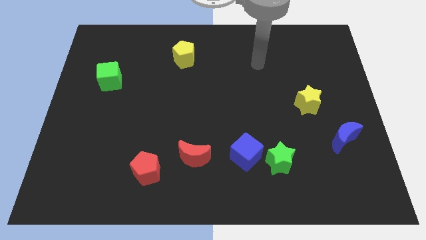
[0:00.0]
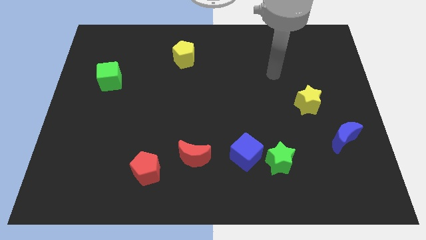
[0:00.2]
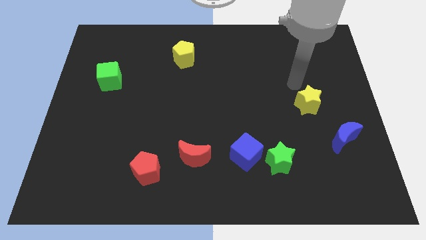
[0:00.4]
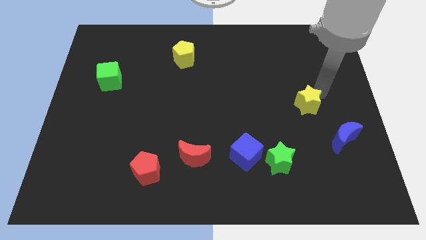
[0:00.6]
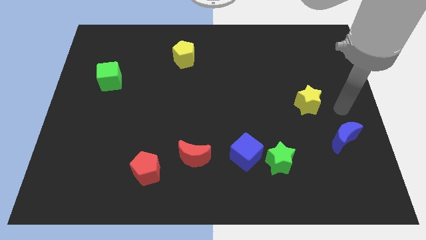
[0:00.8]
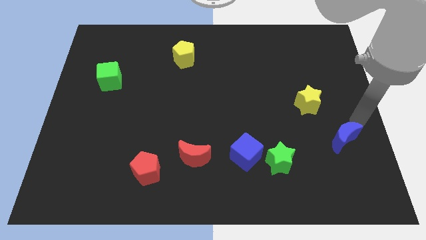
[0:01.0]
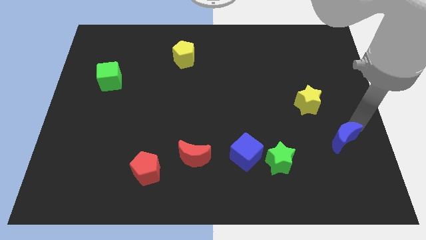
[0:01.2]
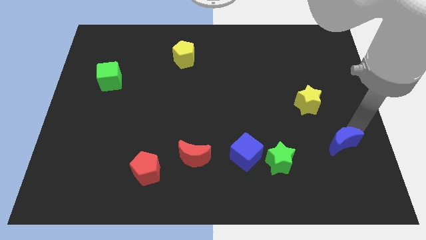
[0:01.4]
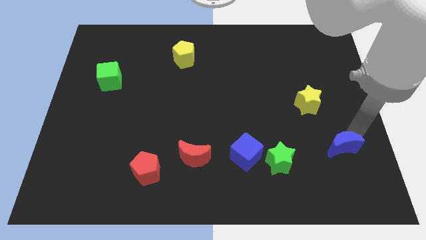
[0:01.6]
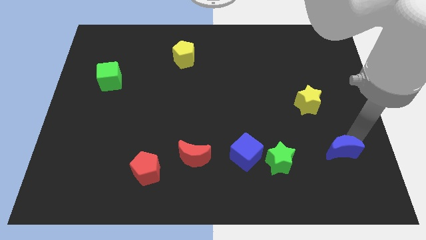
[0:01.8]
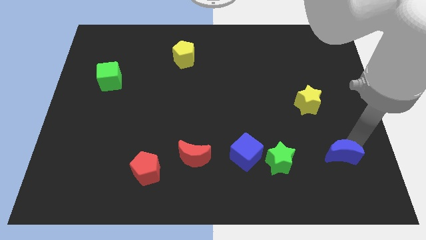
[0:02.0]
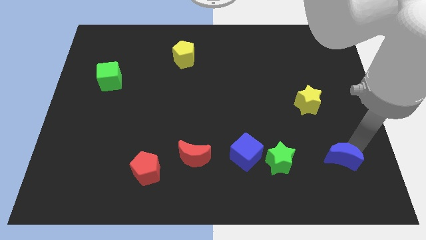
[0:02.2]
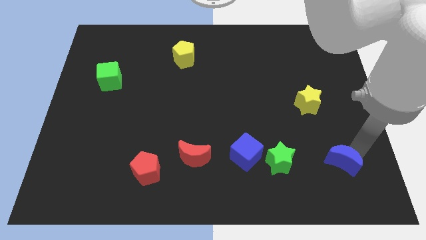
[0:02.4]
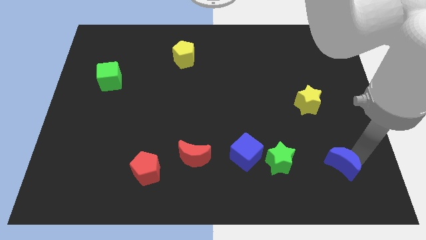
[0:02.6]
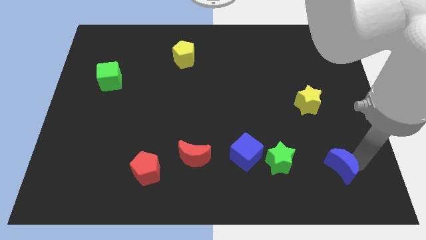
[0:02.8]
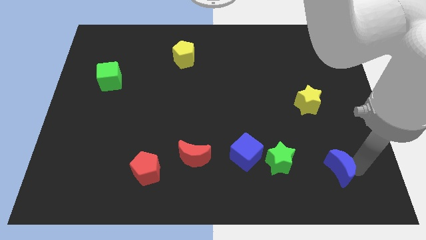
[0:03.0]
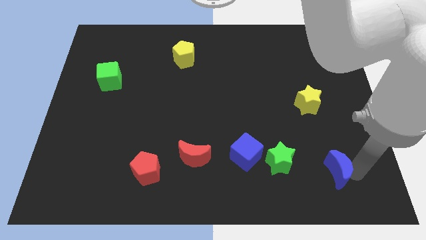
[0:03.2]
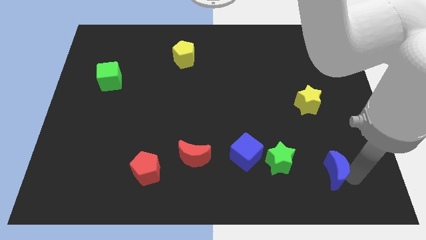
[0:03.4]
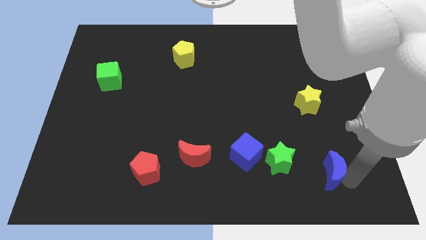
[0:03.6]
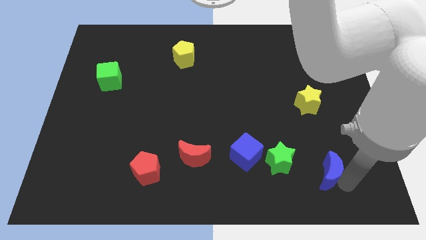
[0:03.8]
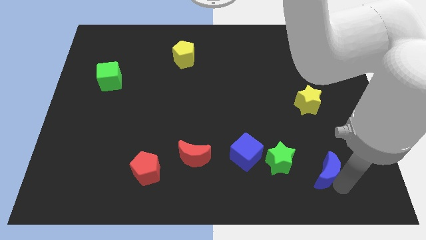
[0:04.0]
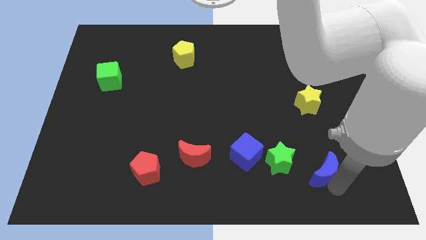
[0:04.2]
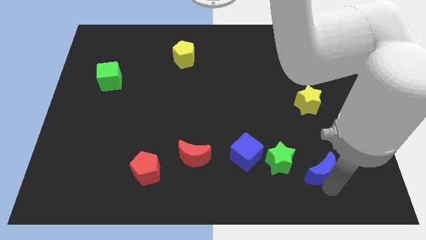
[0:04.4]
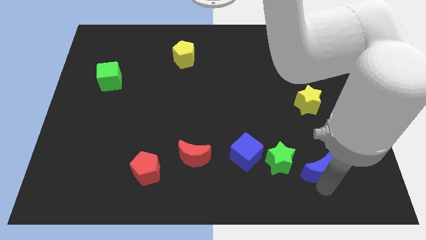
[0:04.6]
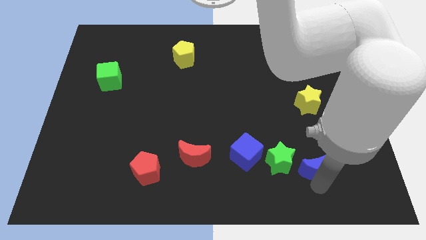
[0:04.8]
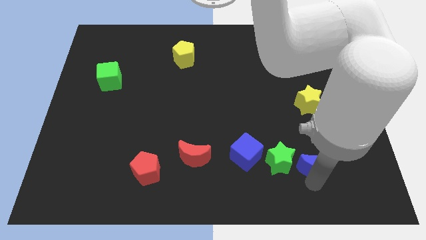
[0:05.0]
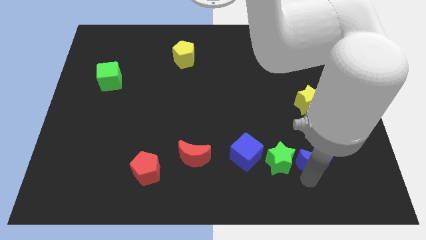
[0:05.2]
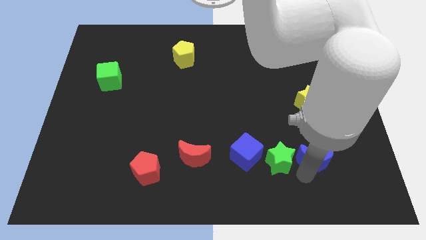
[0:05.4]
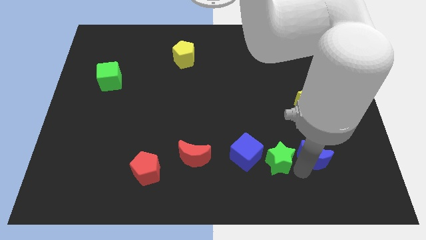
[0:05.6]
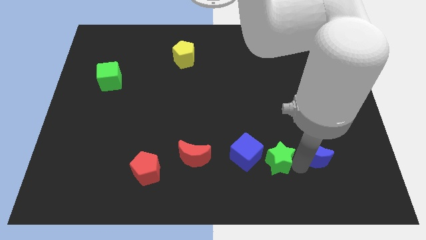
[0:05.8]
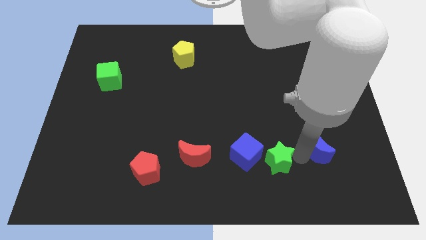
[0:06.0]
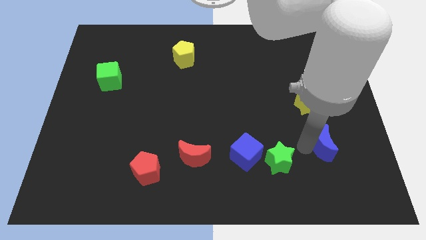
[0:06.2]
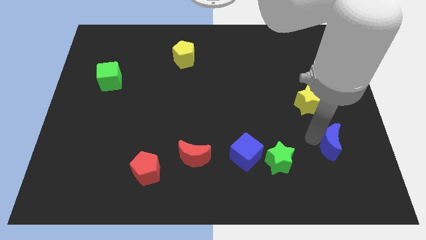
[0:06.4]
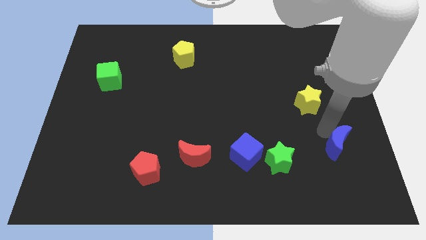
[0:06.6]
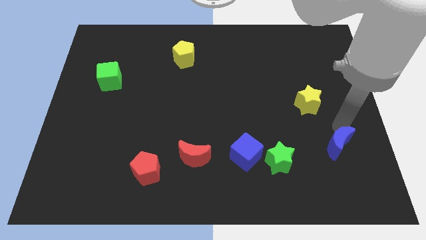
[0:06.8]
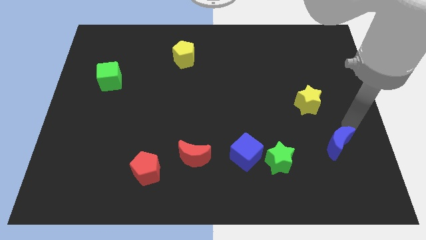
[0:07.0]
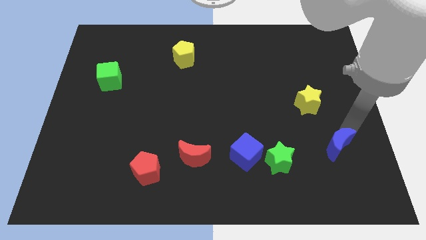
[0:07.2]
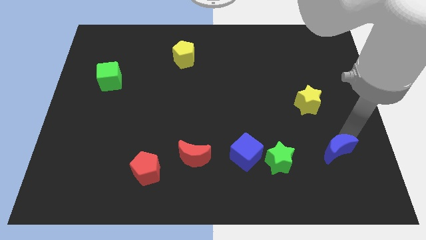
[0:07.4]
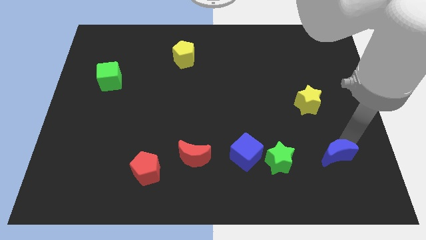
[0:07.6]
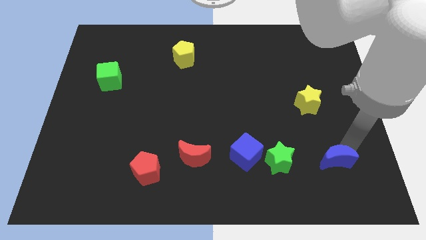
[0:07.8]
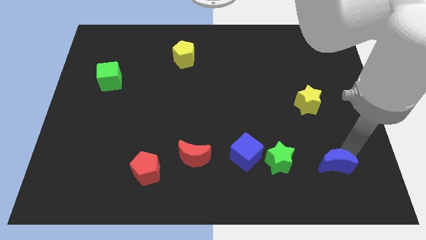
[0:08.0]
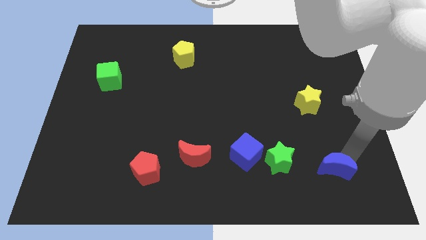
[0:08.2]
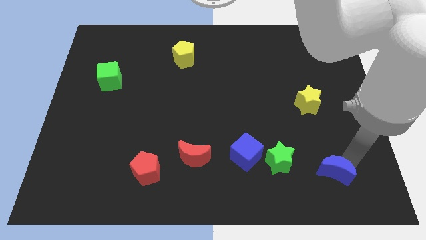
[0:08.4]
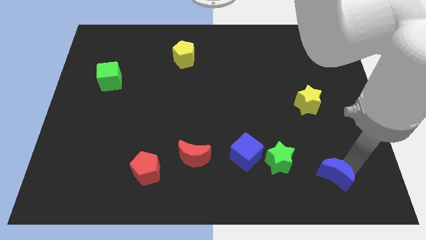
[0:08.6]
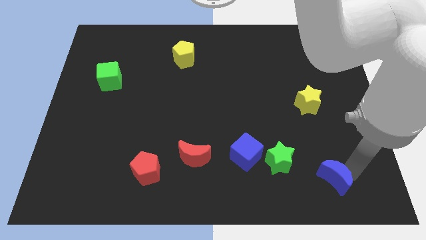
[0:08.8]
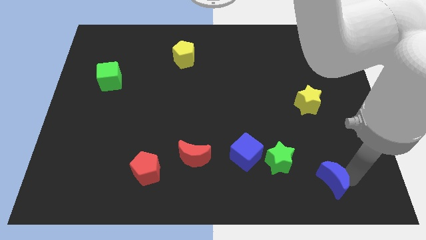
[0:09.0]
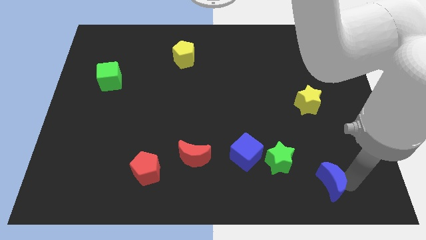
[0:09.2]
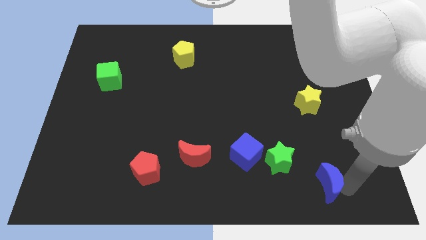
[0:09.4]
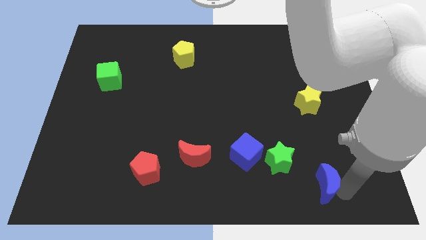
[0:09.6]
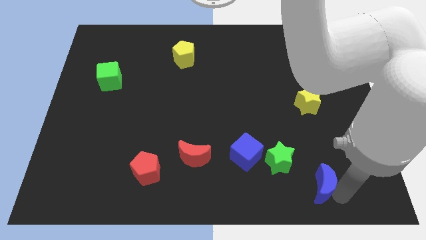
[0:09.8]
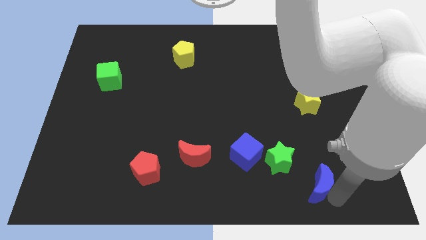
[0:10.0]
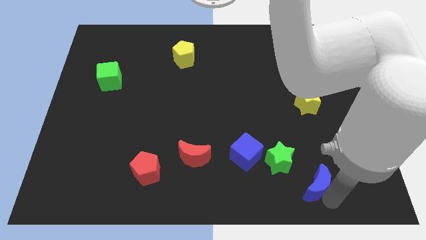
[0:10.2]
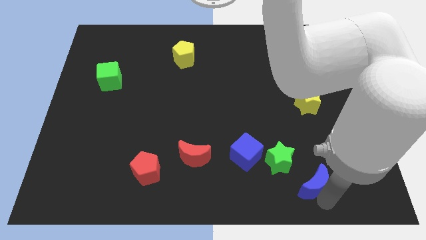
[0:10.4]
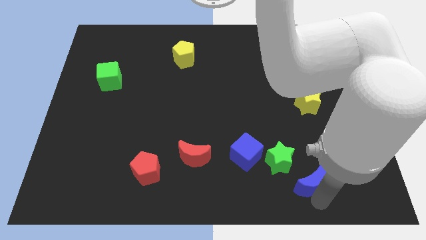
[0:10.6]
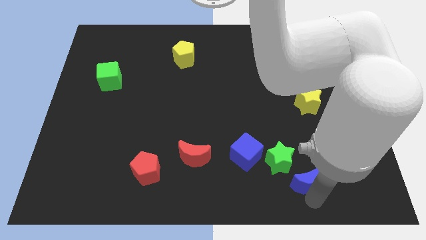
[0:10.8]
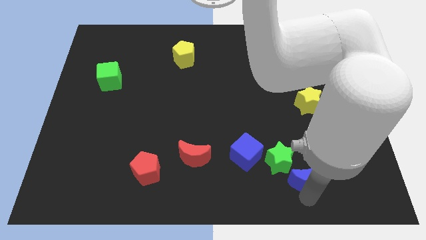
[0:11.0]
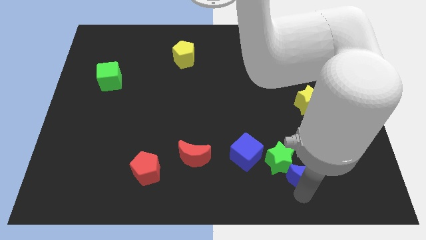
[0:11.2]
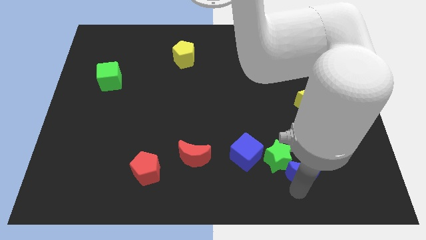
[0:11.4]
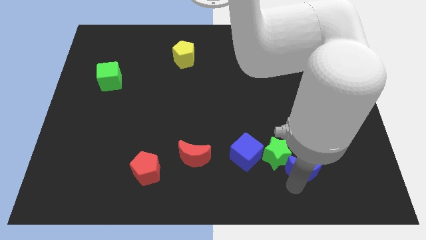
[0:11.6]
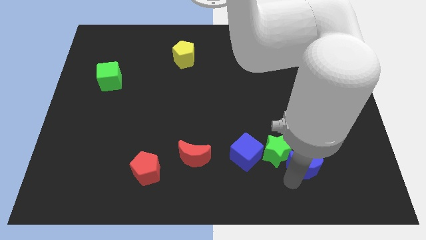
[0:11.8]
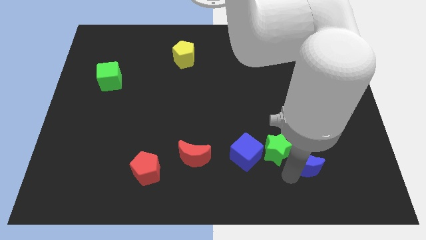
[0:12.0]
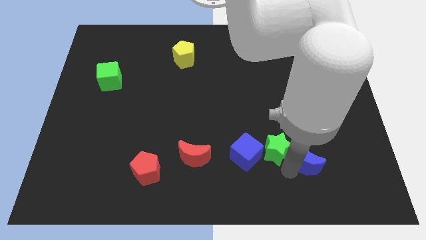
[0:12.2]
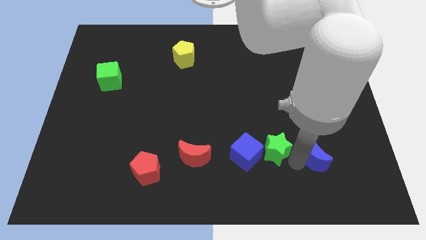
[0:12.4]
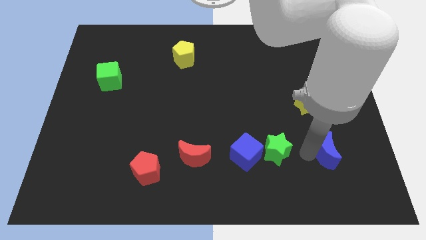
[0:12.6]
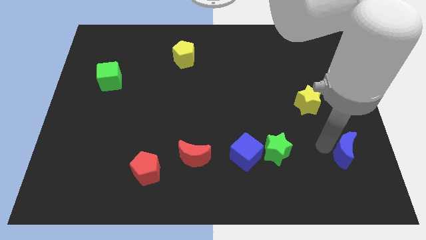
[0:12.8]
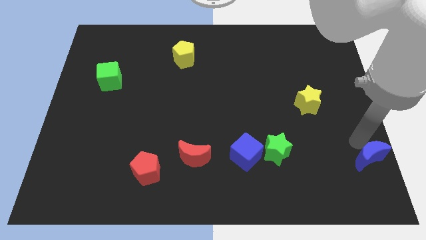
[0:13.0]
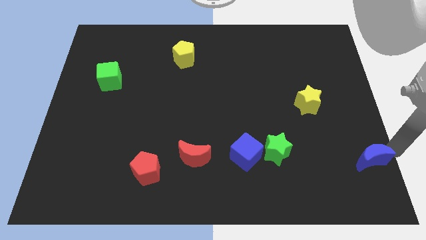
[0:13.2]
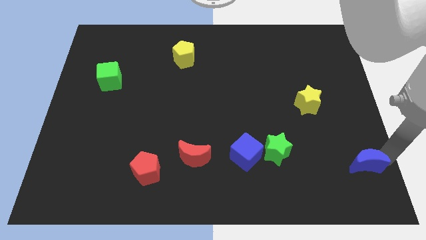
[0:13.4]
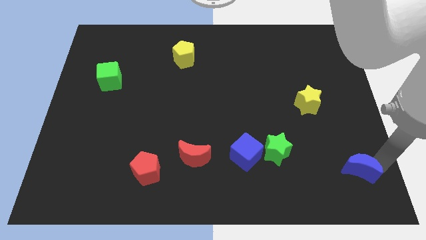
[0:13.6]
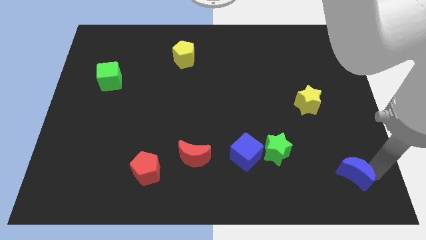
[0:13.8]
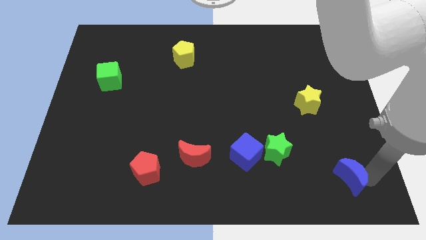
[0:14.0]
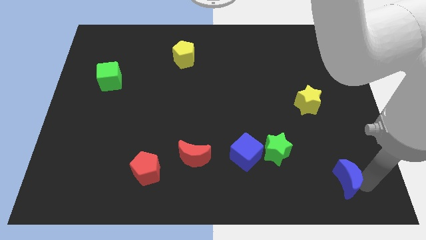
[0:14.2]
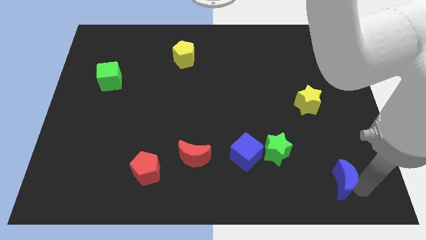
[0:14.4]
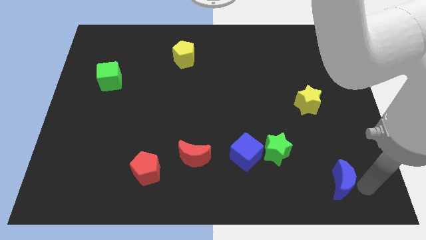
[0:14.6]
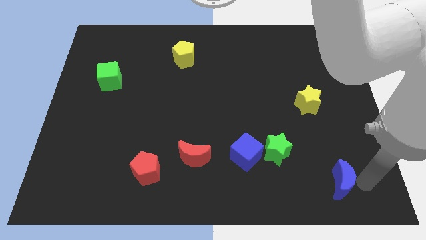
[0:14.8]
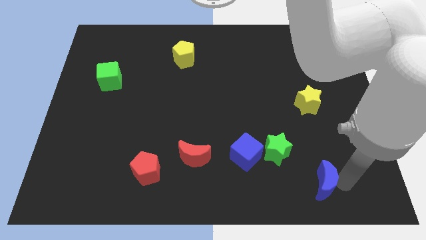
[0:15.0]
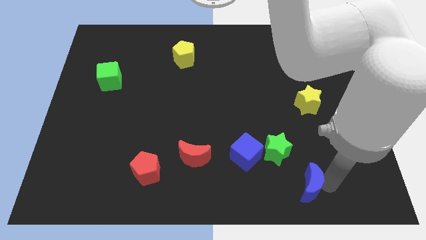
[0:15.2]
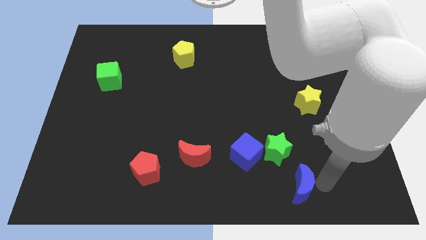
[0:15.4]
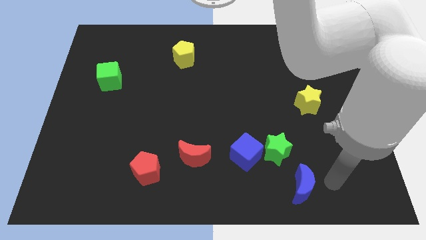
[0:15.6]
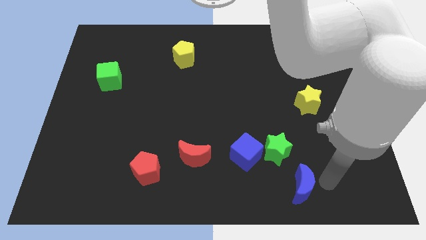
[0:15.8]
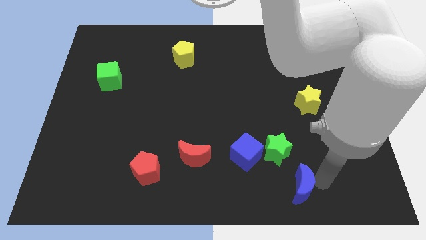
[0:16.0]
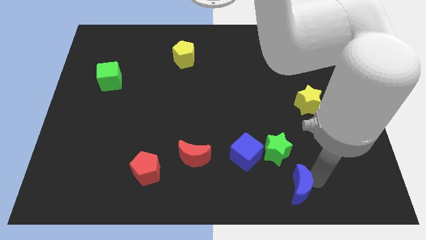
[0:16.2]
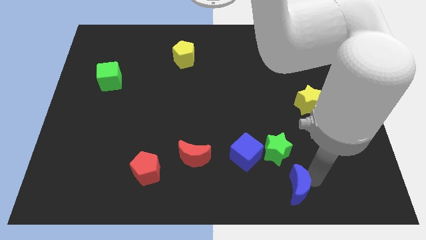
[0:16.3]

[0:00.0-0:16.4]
push the blue moon diagonally down and to the right of the blue cube
